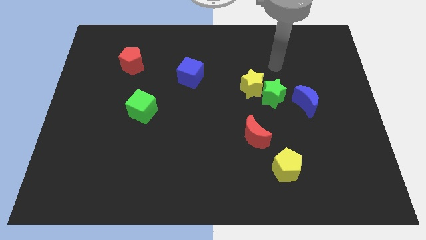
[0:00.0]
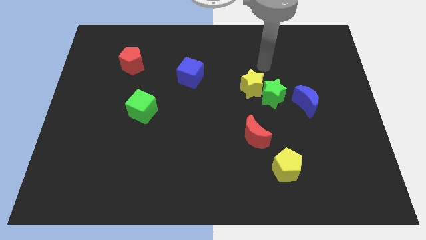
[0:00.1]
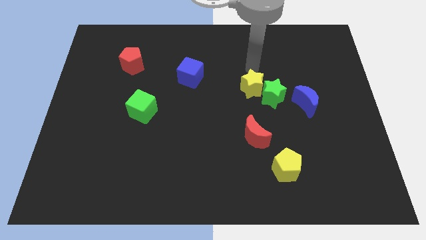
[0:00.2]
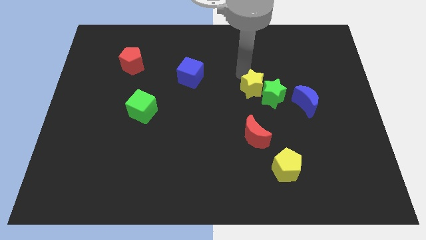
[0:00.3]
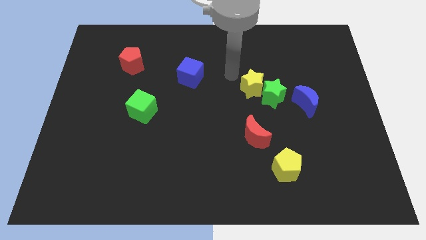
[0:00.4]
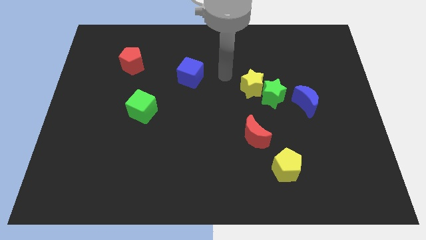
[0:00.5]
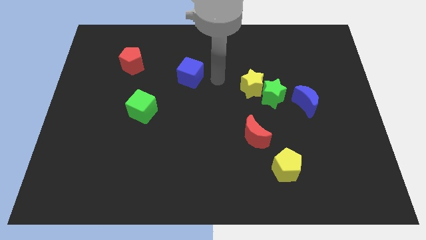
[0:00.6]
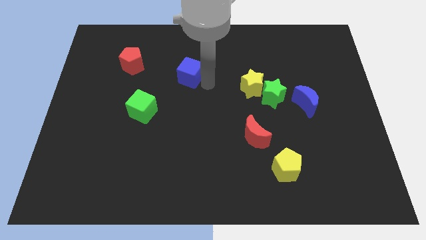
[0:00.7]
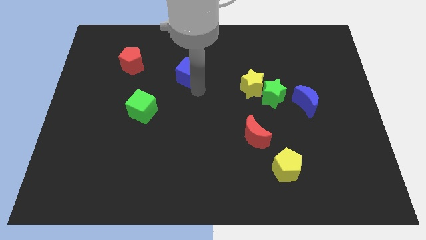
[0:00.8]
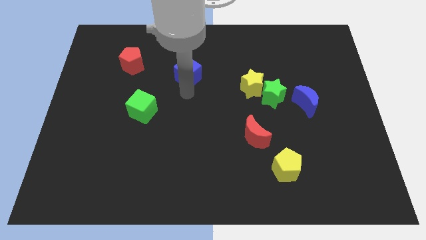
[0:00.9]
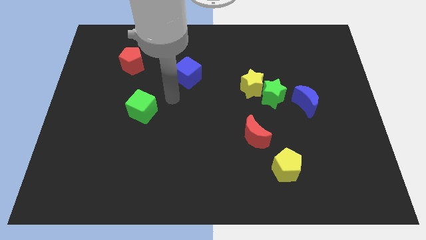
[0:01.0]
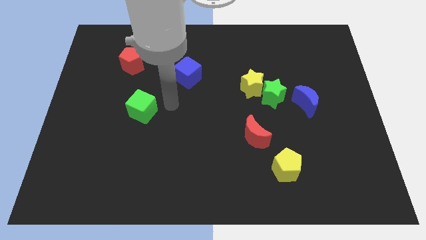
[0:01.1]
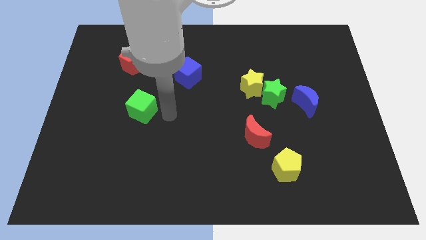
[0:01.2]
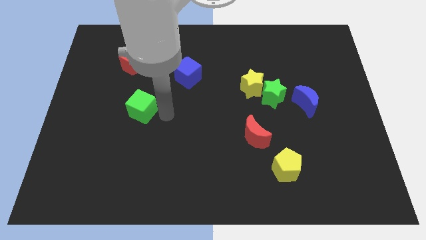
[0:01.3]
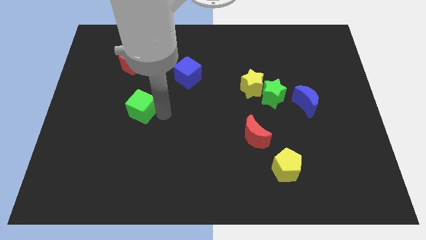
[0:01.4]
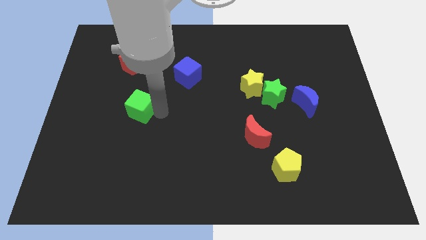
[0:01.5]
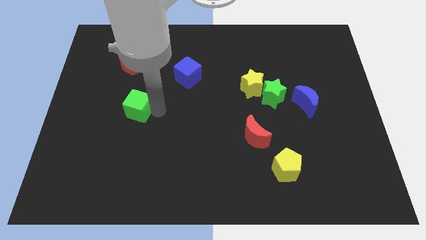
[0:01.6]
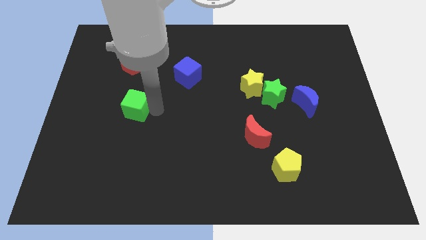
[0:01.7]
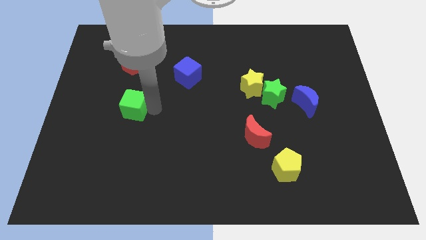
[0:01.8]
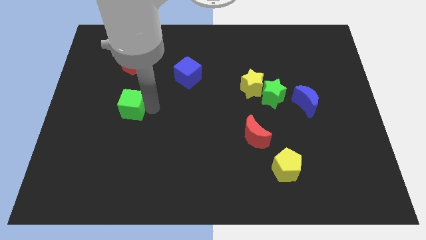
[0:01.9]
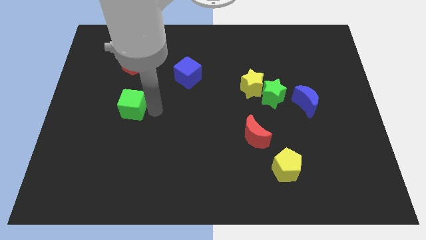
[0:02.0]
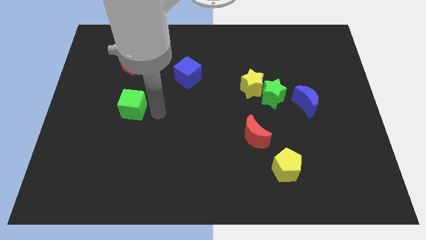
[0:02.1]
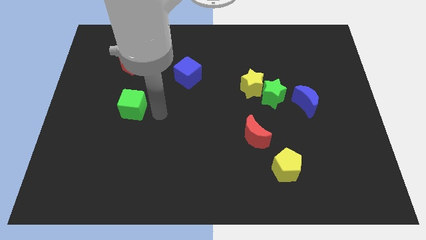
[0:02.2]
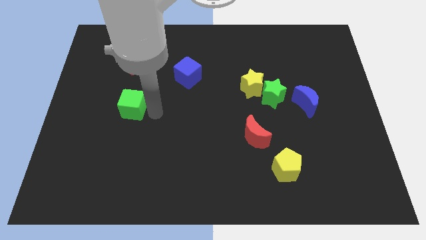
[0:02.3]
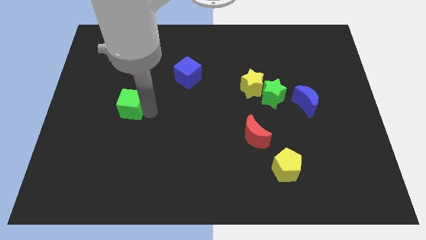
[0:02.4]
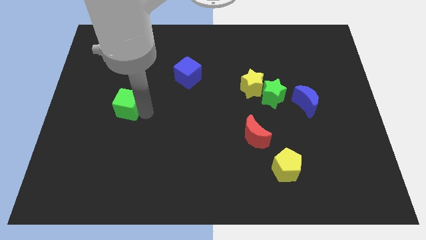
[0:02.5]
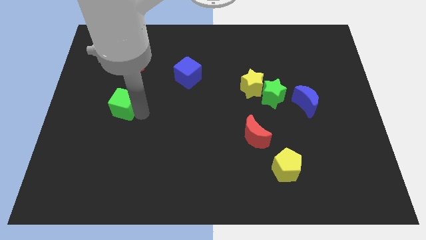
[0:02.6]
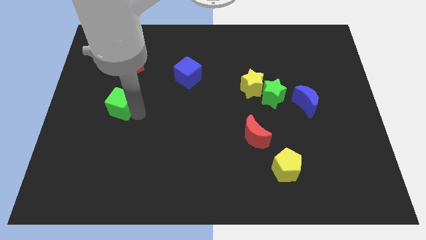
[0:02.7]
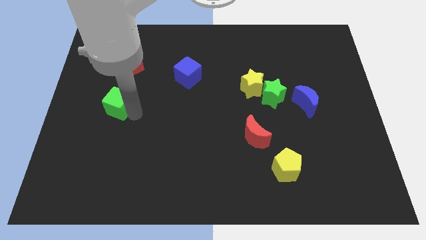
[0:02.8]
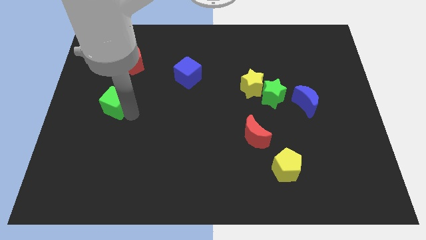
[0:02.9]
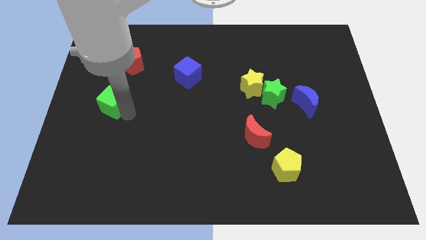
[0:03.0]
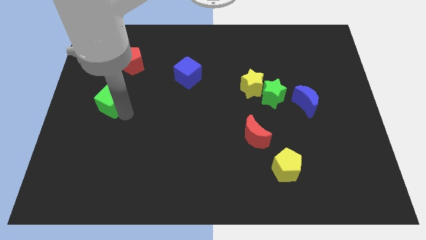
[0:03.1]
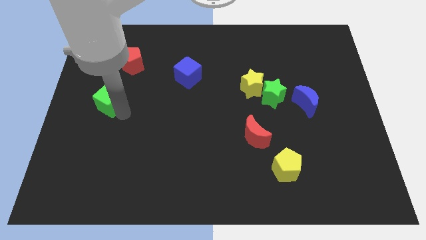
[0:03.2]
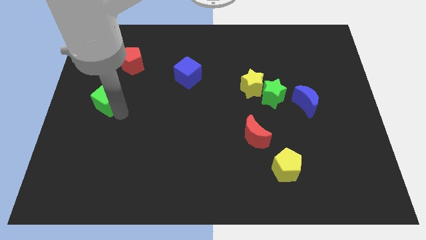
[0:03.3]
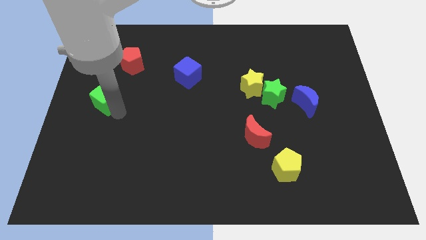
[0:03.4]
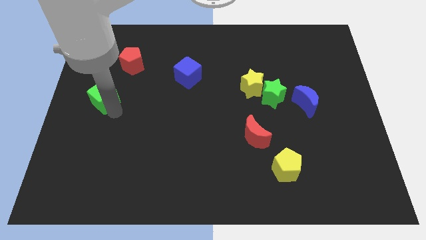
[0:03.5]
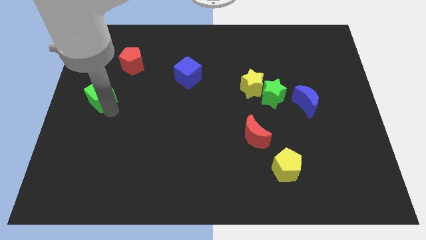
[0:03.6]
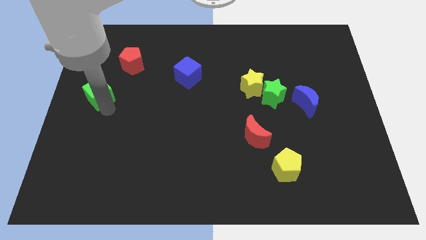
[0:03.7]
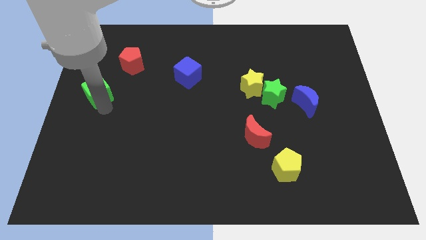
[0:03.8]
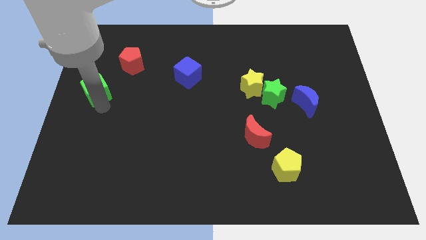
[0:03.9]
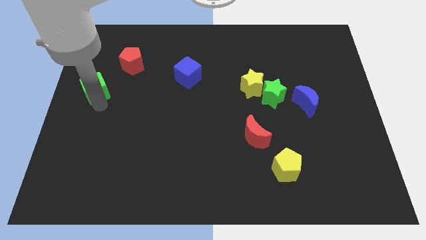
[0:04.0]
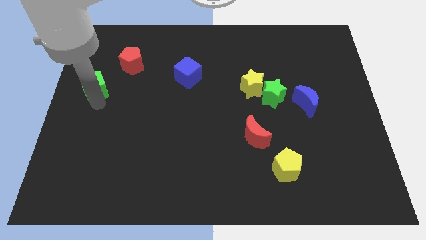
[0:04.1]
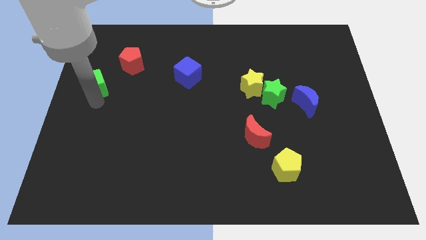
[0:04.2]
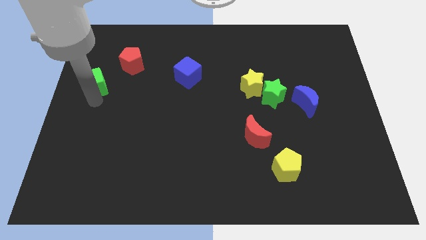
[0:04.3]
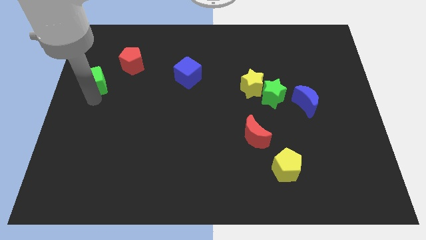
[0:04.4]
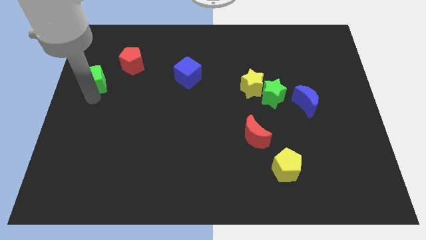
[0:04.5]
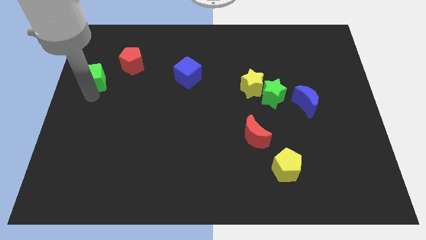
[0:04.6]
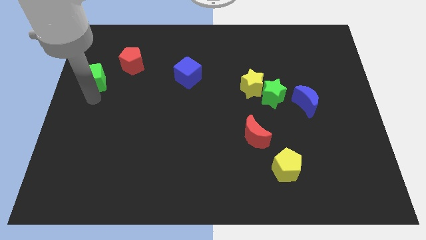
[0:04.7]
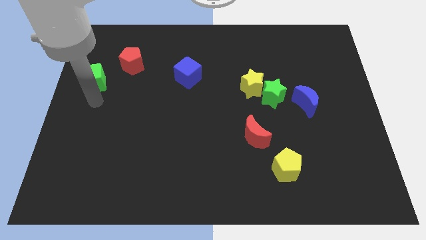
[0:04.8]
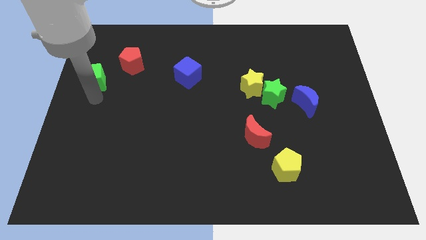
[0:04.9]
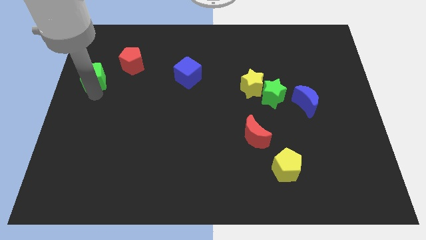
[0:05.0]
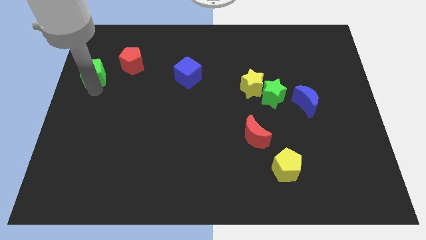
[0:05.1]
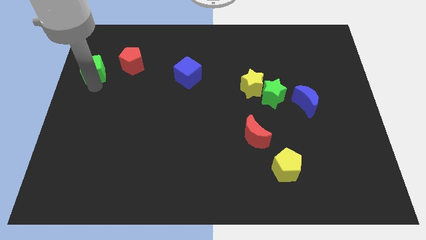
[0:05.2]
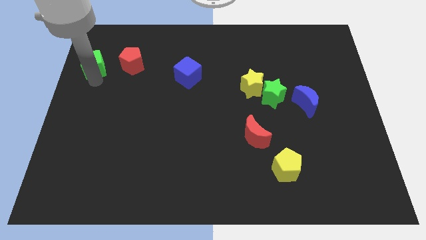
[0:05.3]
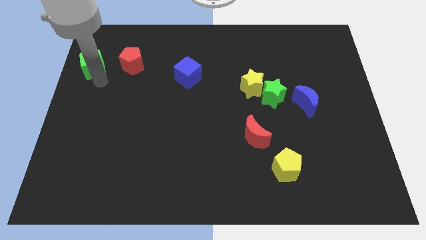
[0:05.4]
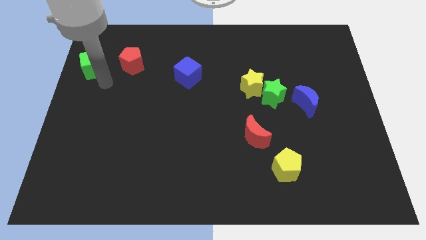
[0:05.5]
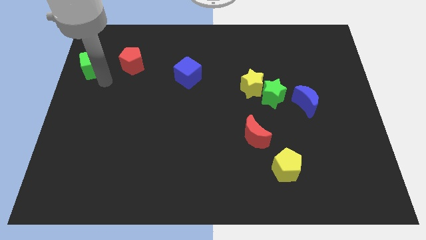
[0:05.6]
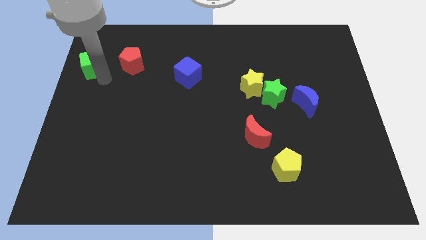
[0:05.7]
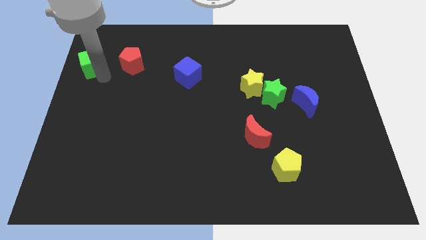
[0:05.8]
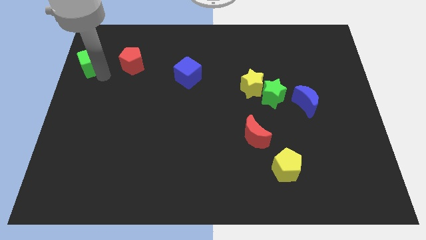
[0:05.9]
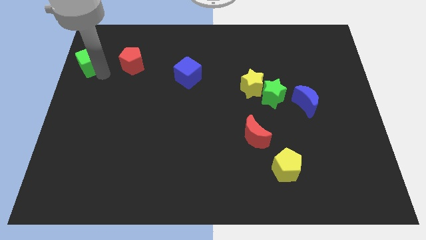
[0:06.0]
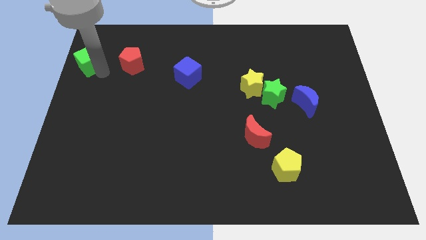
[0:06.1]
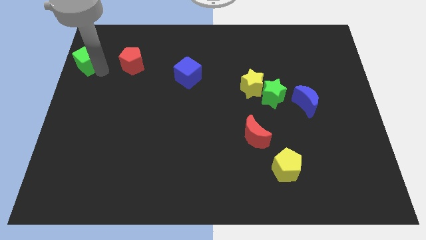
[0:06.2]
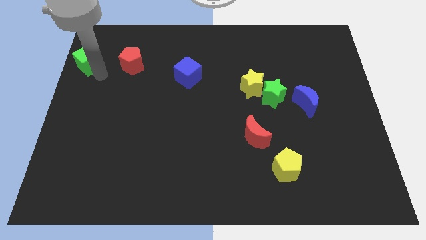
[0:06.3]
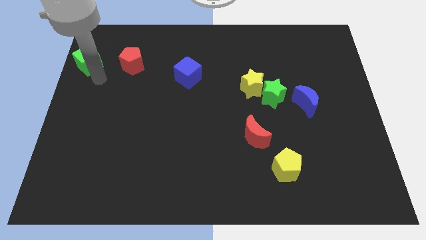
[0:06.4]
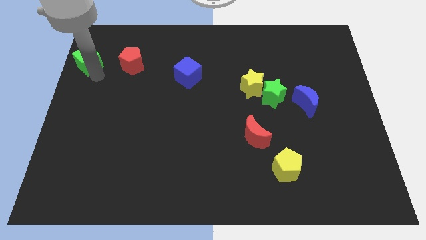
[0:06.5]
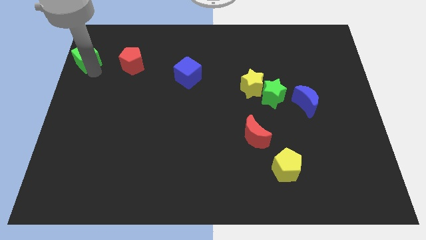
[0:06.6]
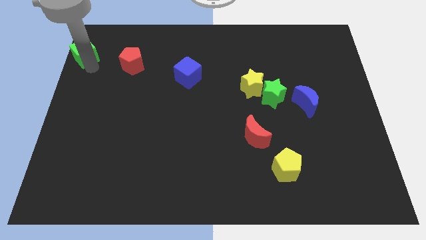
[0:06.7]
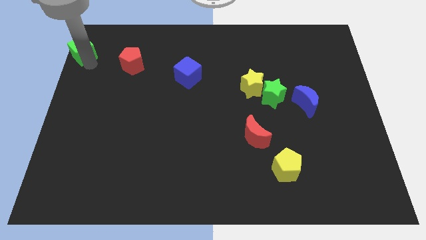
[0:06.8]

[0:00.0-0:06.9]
put the green cube to the top left corner
